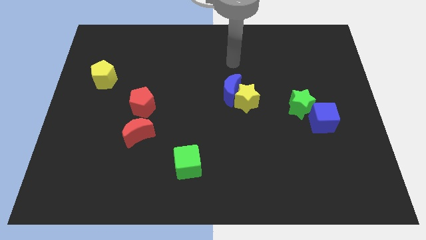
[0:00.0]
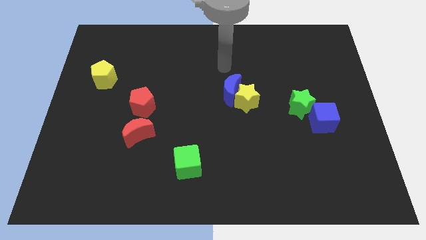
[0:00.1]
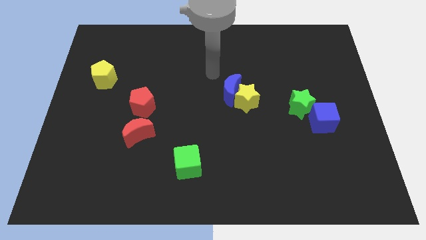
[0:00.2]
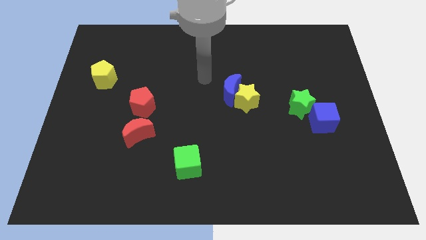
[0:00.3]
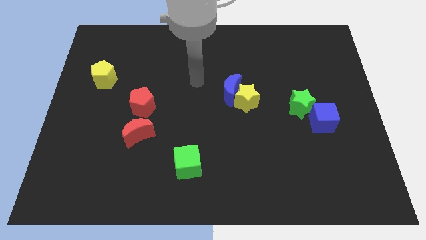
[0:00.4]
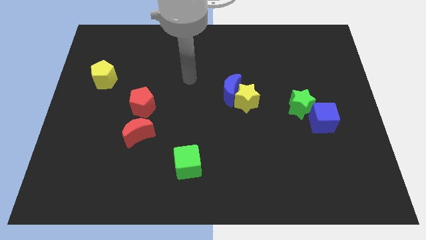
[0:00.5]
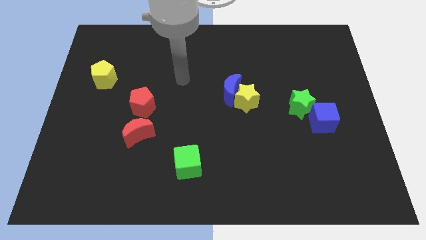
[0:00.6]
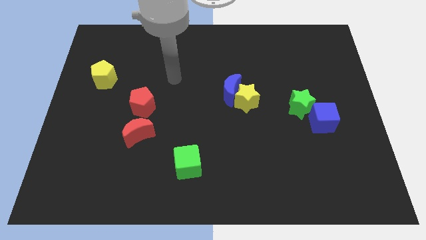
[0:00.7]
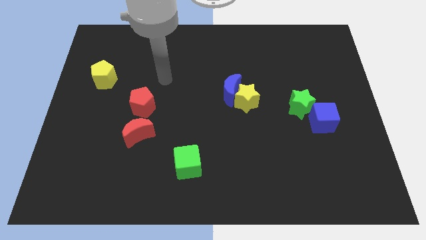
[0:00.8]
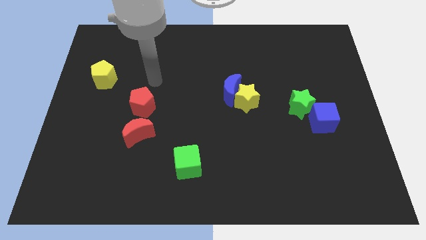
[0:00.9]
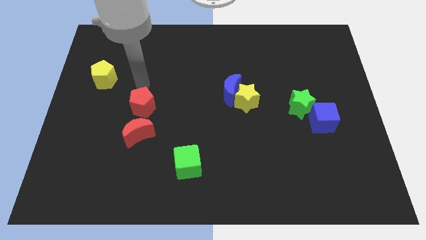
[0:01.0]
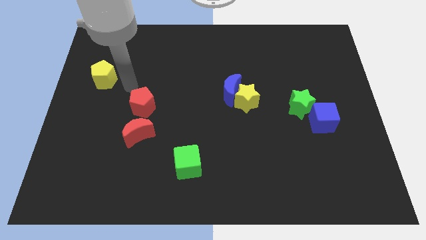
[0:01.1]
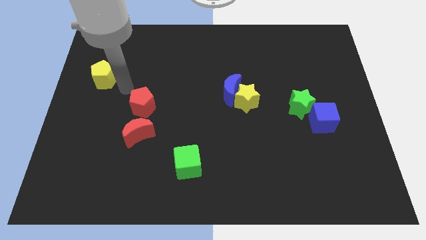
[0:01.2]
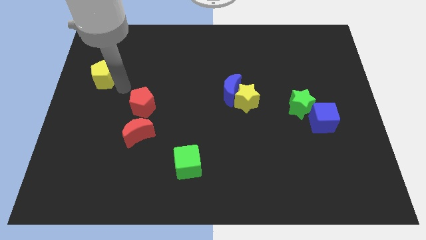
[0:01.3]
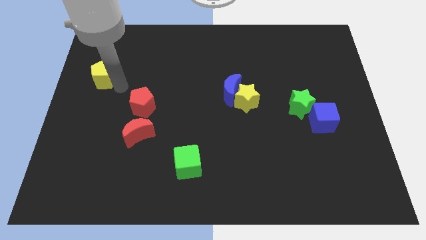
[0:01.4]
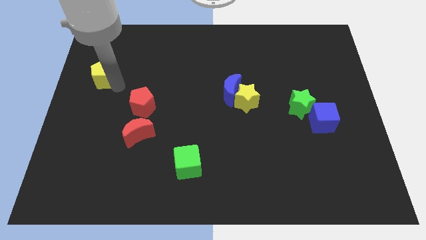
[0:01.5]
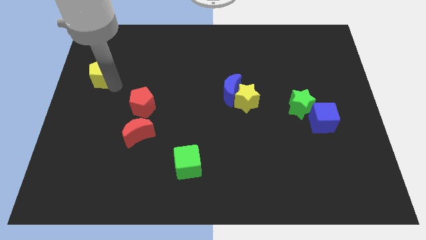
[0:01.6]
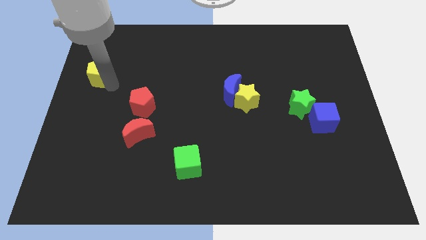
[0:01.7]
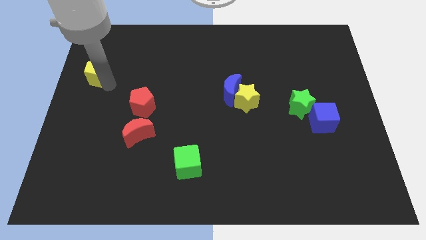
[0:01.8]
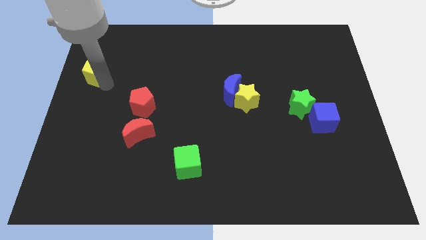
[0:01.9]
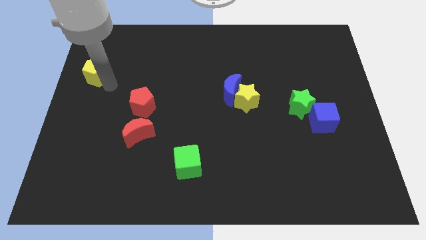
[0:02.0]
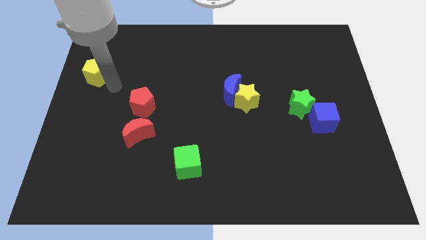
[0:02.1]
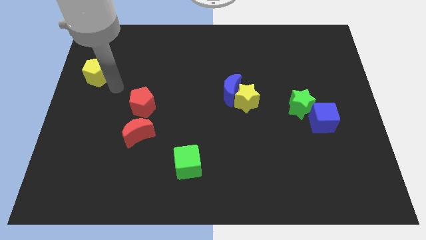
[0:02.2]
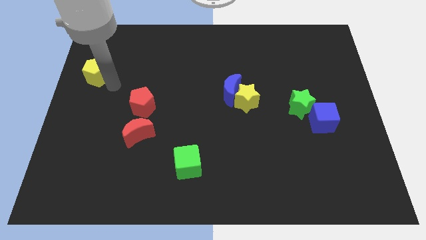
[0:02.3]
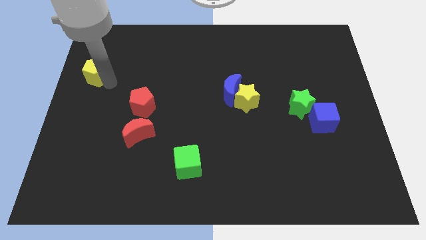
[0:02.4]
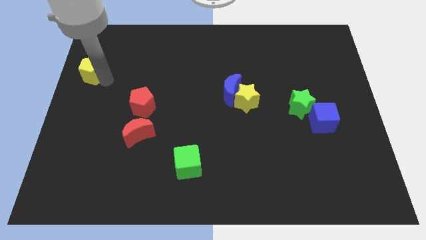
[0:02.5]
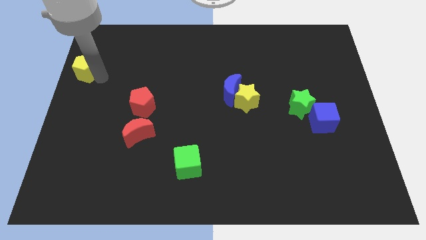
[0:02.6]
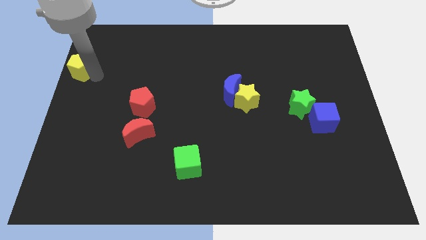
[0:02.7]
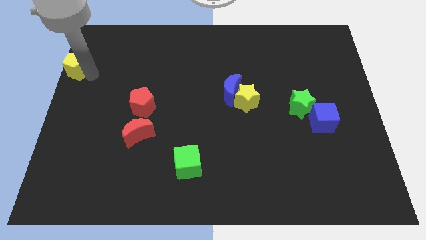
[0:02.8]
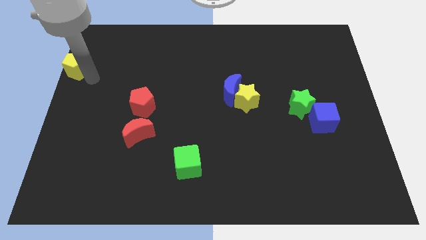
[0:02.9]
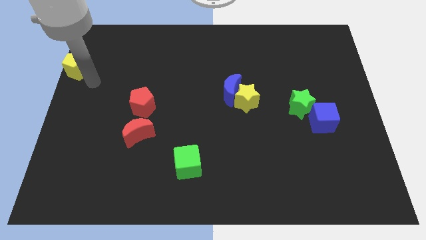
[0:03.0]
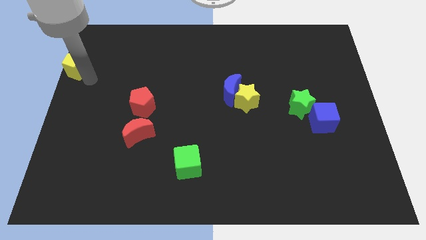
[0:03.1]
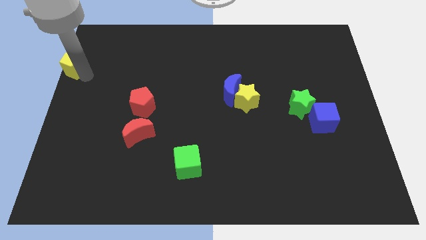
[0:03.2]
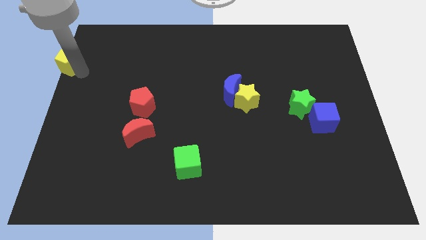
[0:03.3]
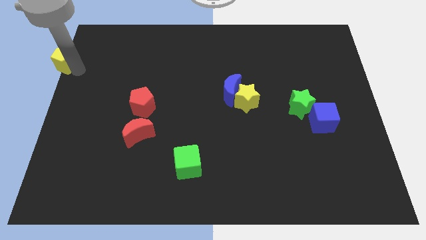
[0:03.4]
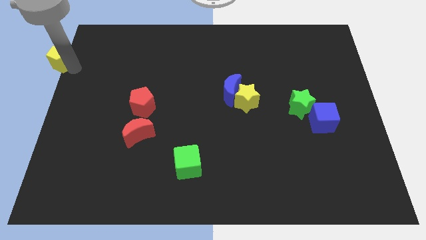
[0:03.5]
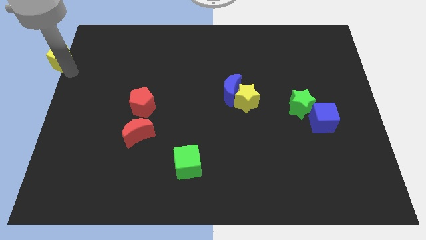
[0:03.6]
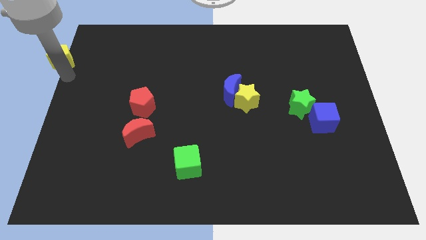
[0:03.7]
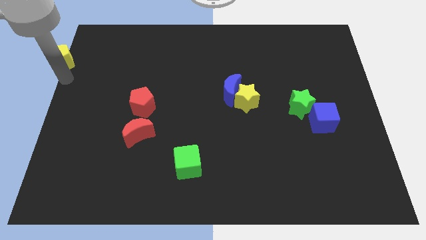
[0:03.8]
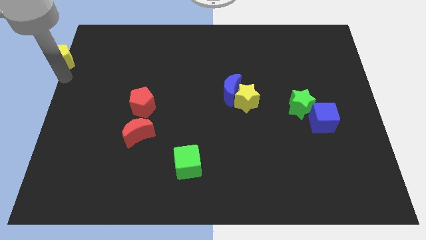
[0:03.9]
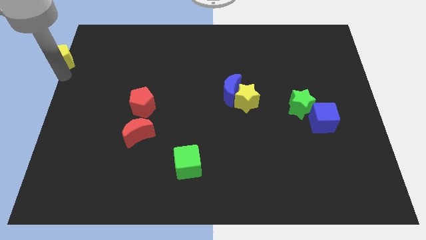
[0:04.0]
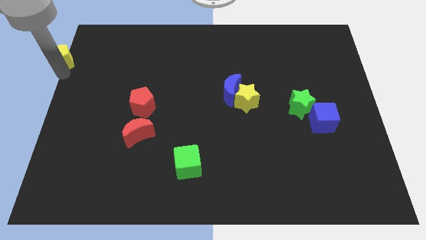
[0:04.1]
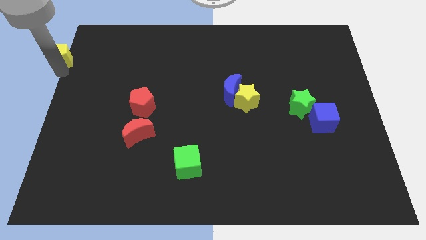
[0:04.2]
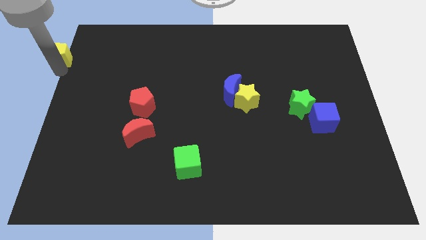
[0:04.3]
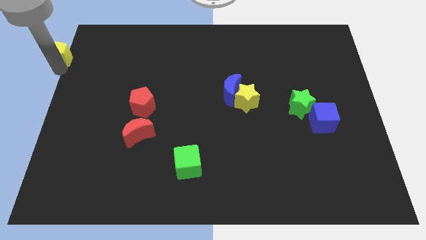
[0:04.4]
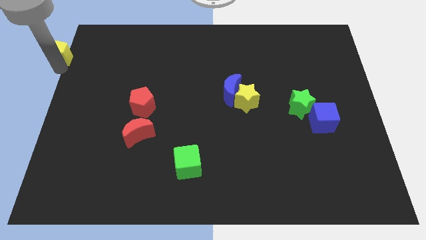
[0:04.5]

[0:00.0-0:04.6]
put the yellow pentagon to the top left of the board

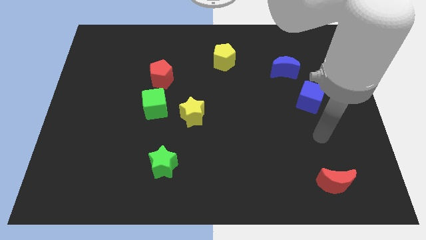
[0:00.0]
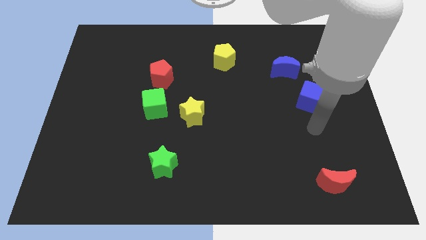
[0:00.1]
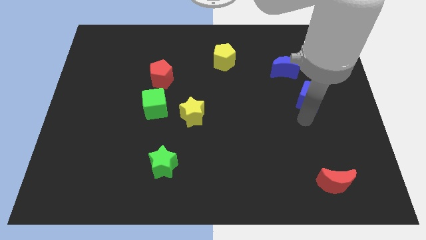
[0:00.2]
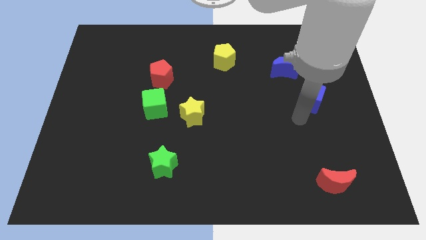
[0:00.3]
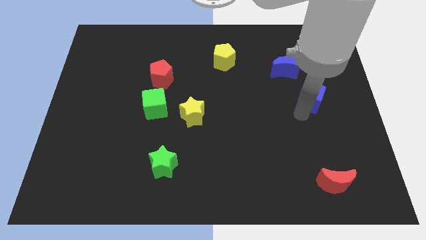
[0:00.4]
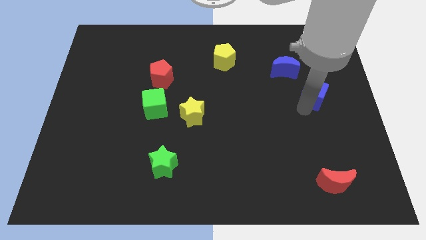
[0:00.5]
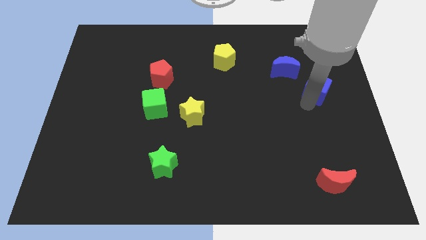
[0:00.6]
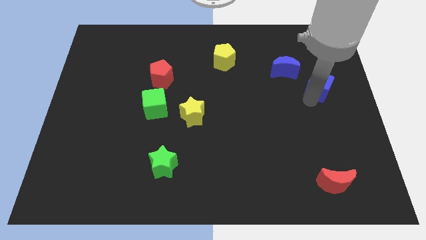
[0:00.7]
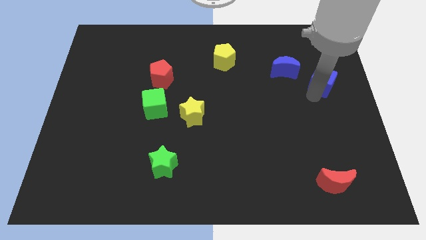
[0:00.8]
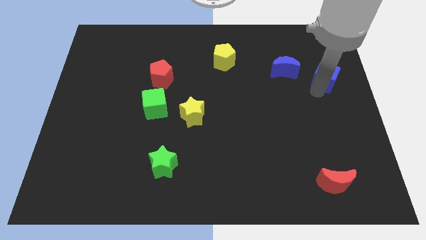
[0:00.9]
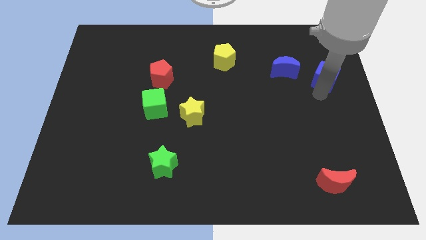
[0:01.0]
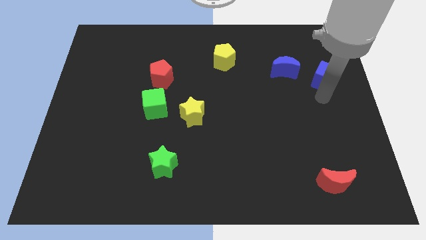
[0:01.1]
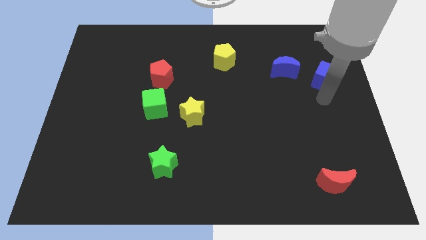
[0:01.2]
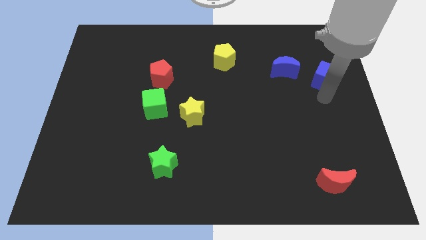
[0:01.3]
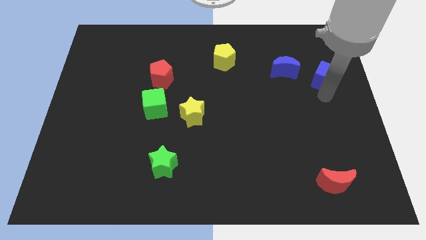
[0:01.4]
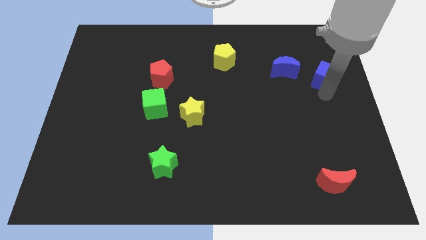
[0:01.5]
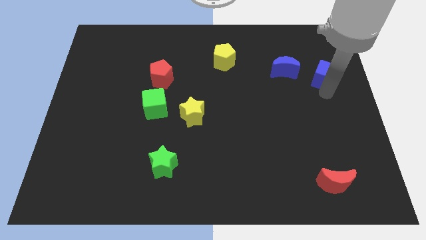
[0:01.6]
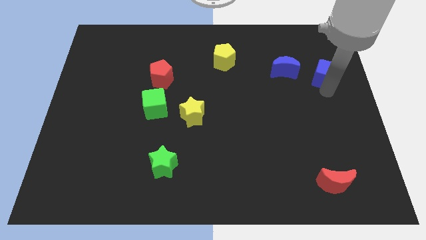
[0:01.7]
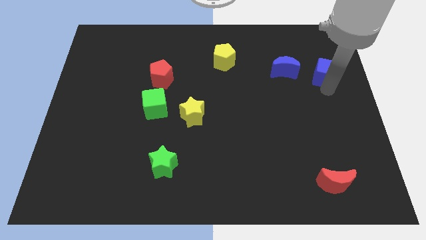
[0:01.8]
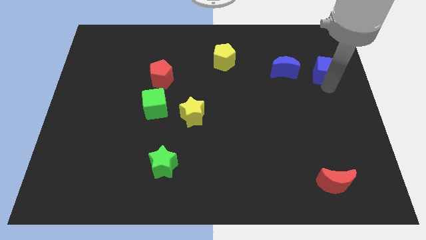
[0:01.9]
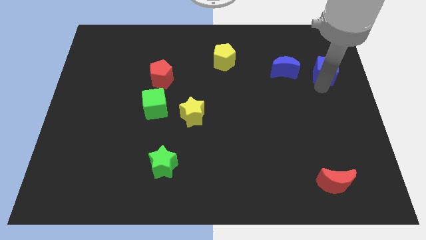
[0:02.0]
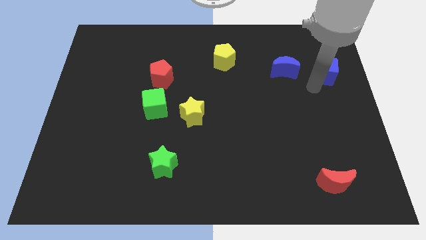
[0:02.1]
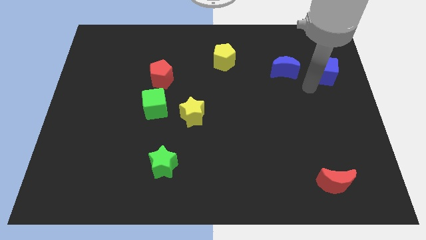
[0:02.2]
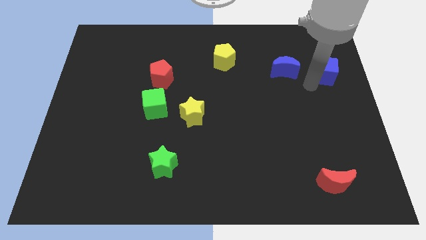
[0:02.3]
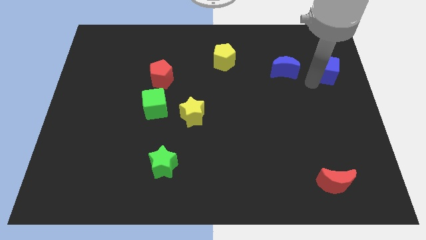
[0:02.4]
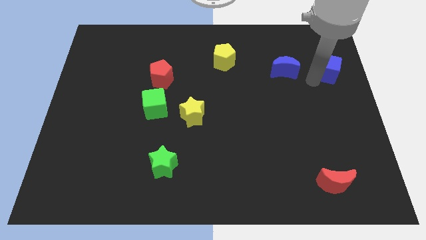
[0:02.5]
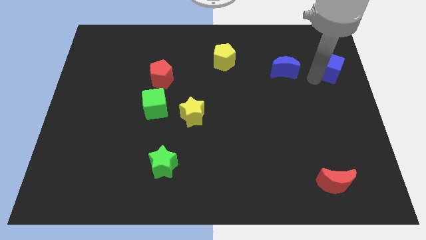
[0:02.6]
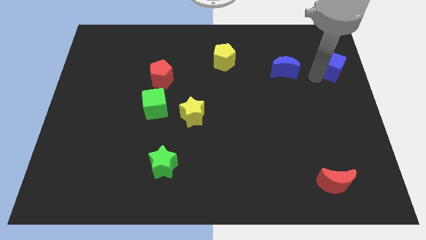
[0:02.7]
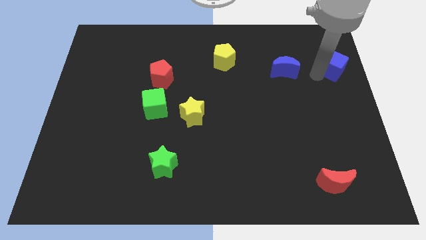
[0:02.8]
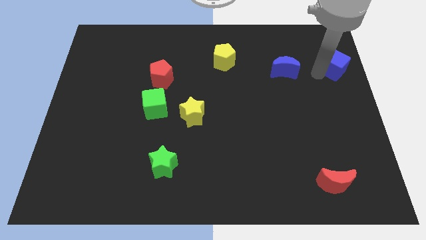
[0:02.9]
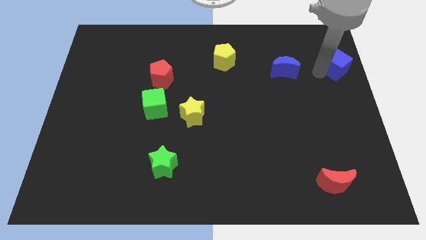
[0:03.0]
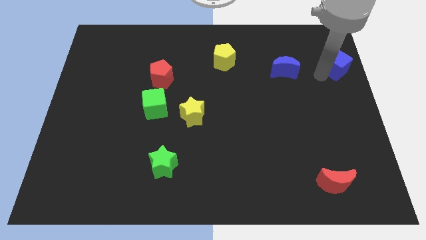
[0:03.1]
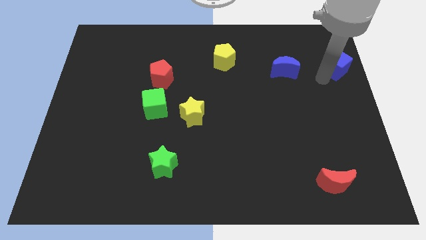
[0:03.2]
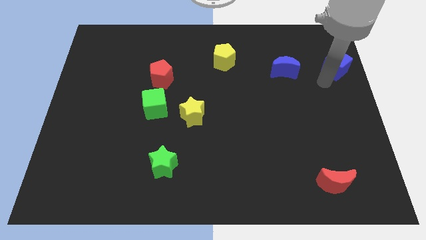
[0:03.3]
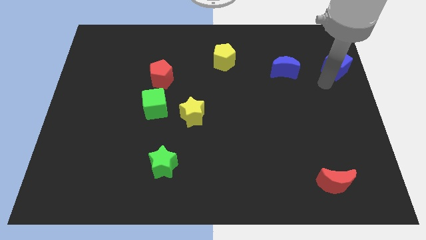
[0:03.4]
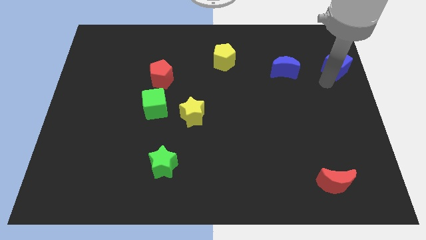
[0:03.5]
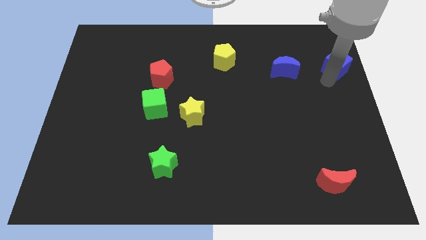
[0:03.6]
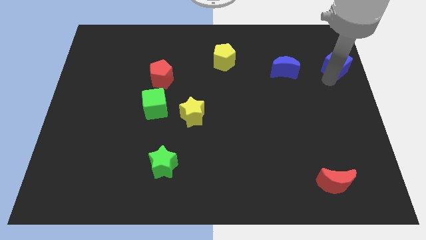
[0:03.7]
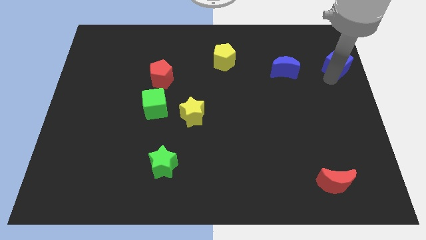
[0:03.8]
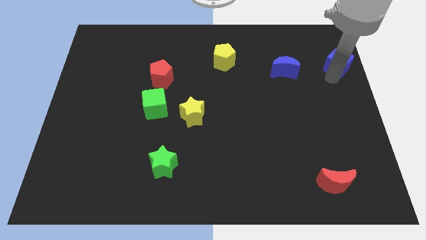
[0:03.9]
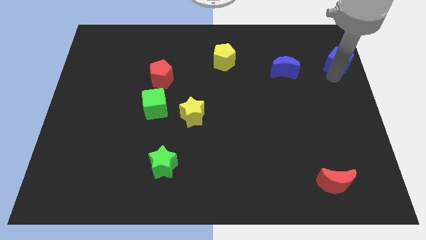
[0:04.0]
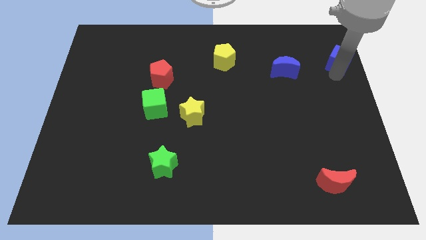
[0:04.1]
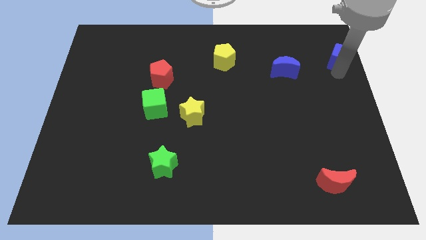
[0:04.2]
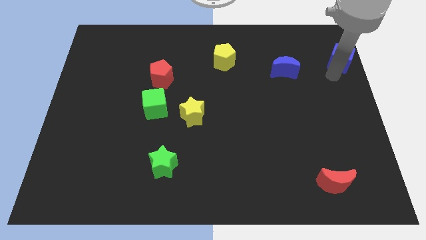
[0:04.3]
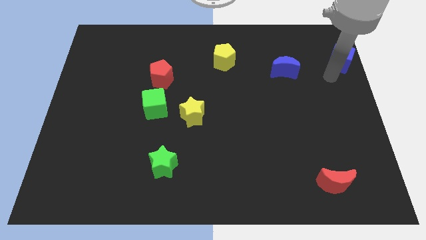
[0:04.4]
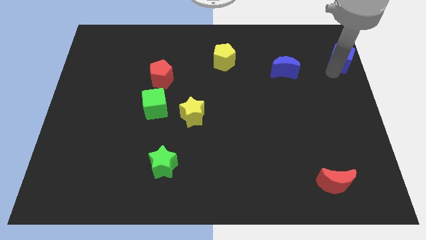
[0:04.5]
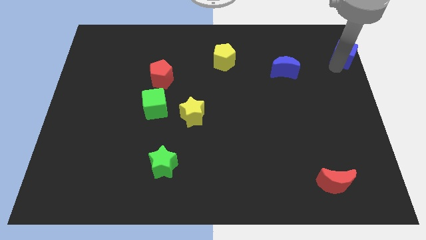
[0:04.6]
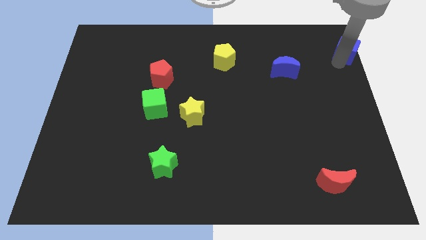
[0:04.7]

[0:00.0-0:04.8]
put the blue cube to the top right of the board
